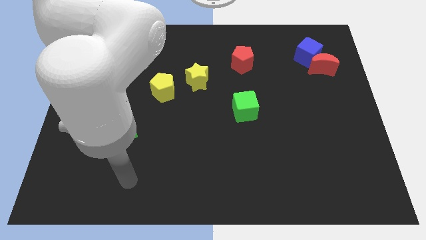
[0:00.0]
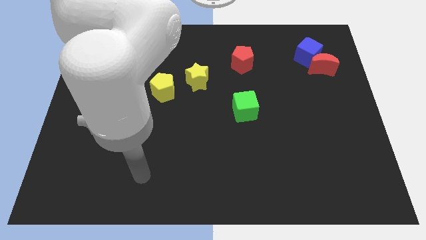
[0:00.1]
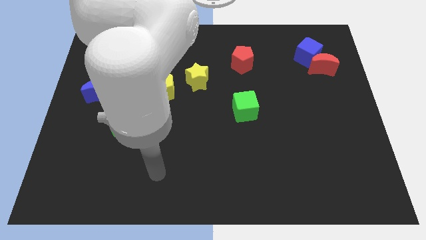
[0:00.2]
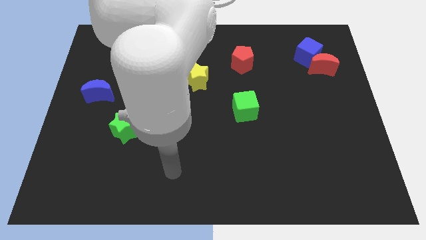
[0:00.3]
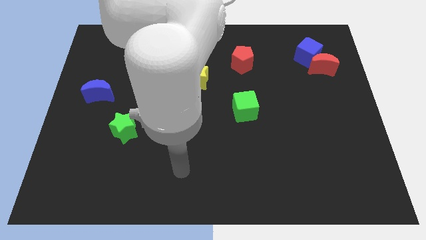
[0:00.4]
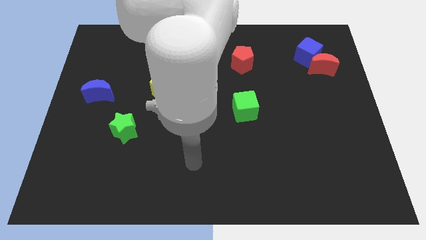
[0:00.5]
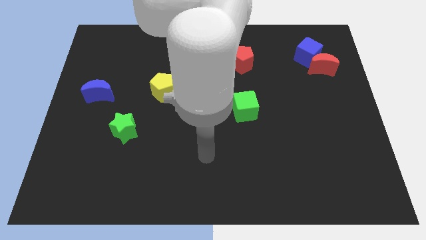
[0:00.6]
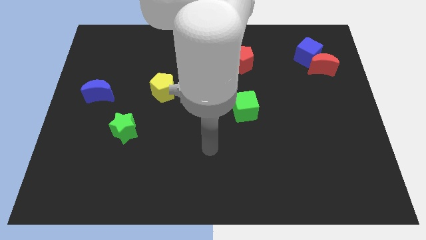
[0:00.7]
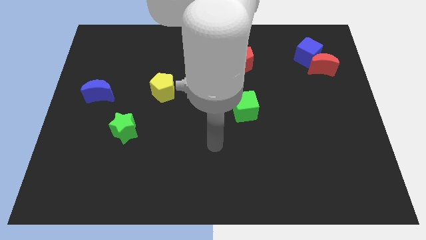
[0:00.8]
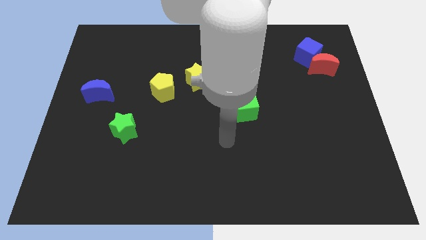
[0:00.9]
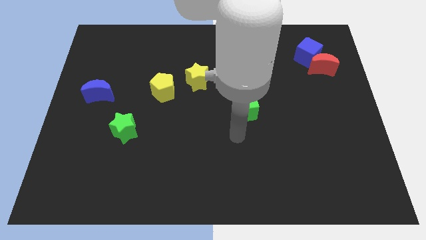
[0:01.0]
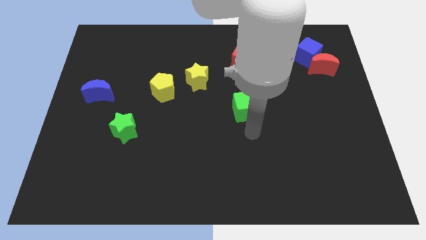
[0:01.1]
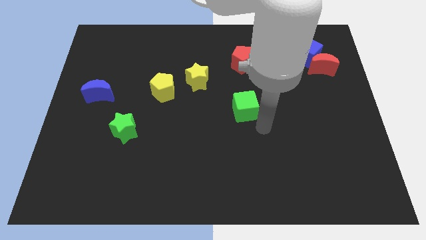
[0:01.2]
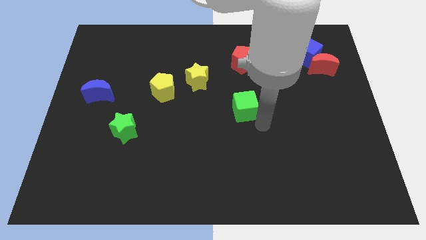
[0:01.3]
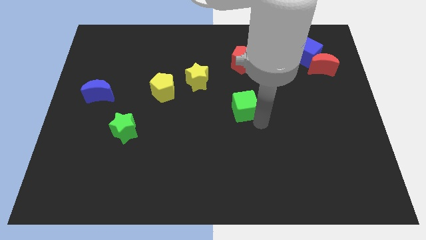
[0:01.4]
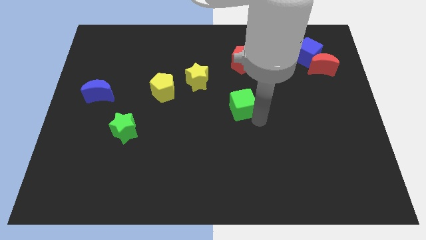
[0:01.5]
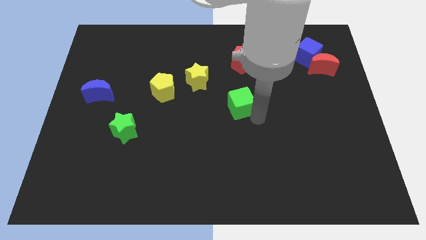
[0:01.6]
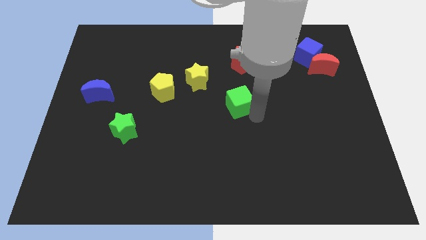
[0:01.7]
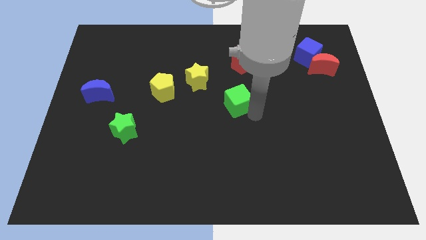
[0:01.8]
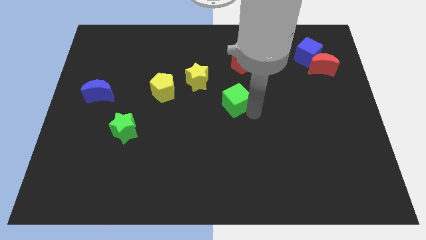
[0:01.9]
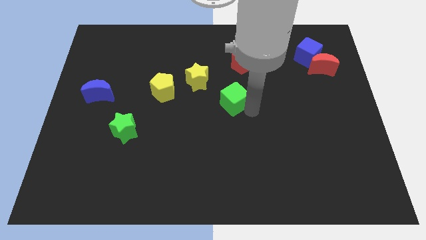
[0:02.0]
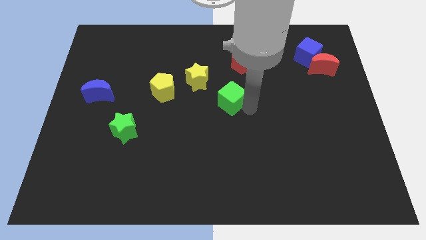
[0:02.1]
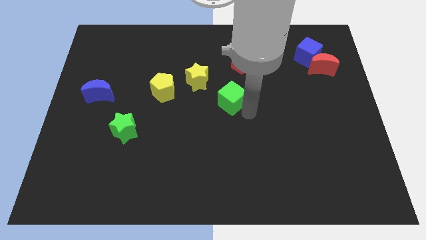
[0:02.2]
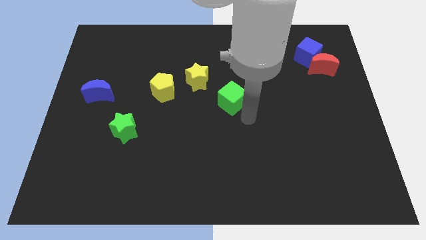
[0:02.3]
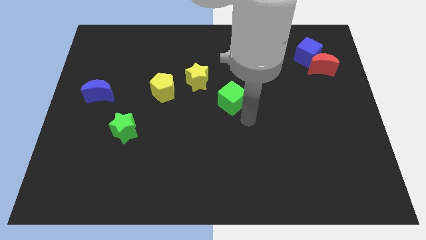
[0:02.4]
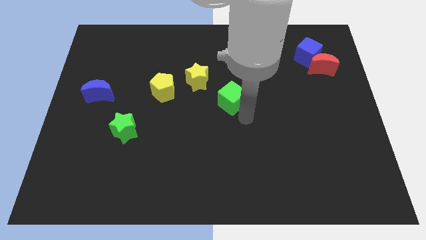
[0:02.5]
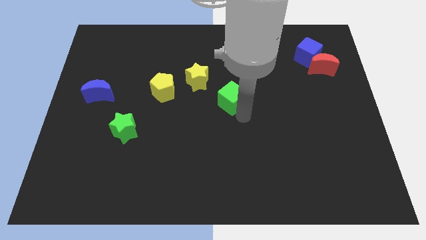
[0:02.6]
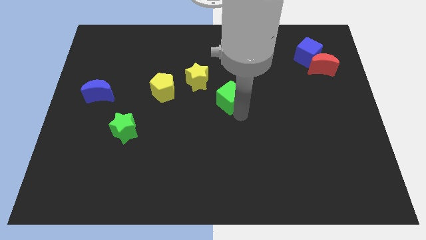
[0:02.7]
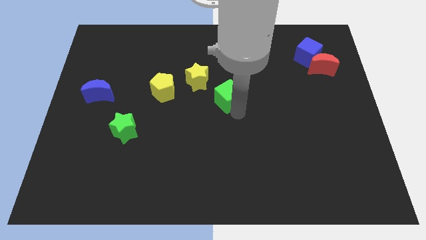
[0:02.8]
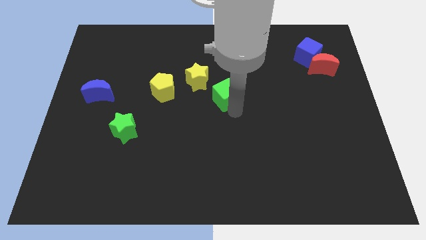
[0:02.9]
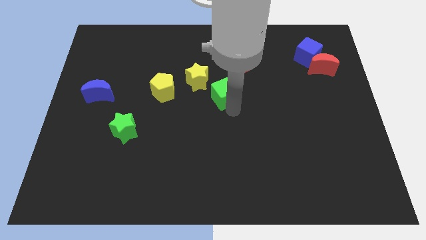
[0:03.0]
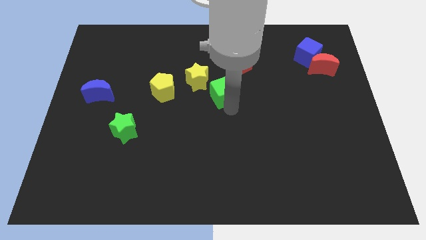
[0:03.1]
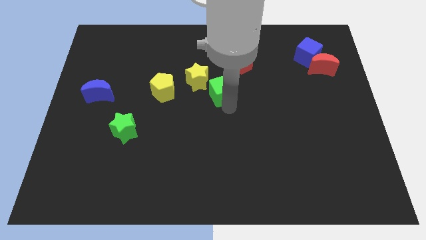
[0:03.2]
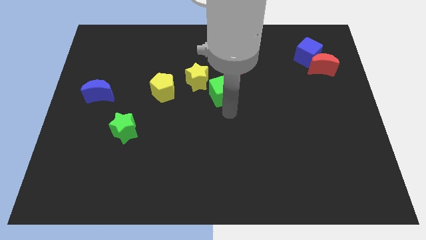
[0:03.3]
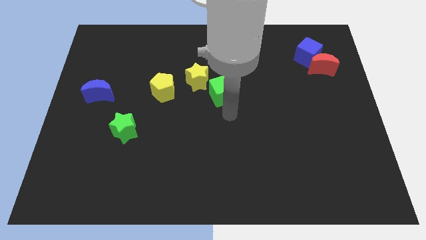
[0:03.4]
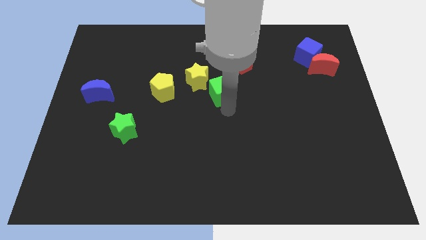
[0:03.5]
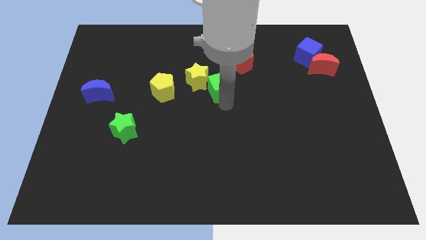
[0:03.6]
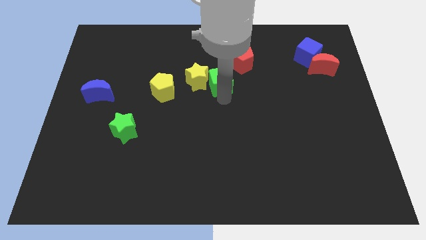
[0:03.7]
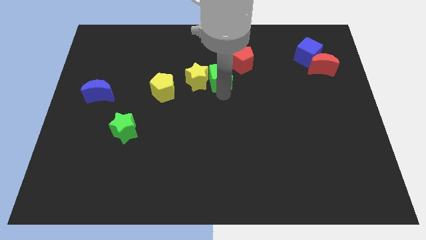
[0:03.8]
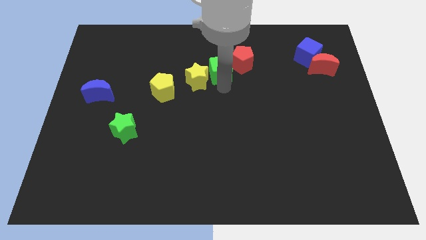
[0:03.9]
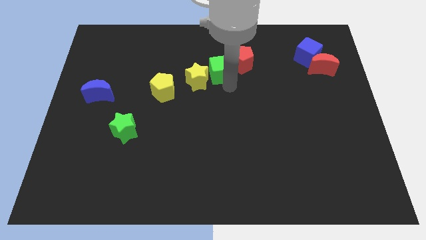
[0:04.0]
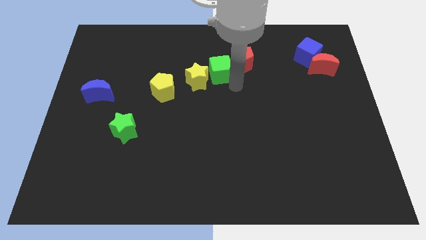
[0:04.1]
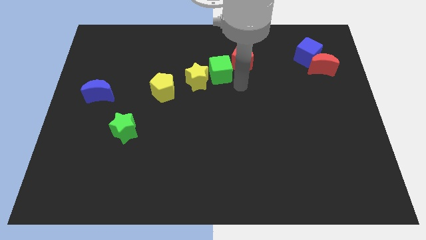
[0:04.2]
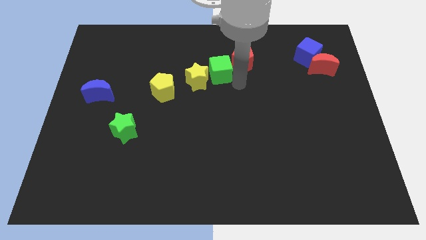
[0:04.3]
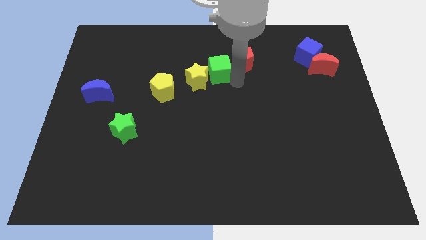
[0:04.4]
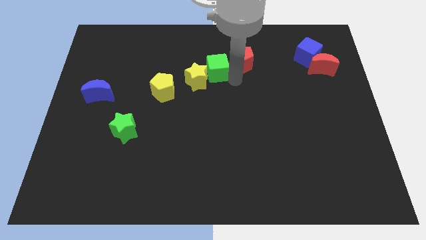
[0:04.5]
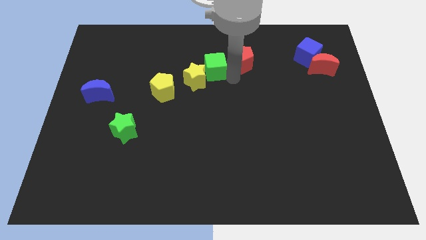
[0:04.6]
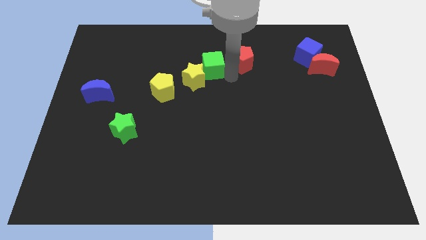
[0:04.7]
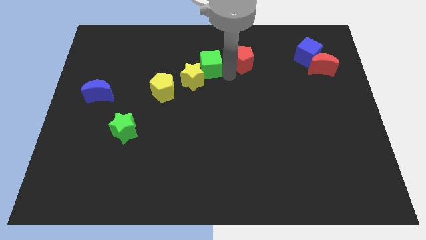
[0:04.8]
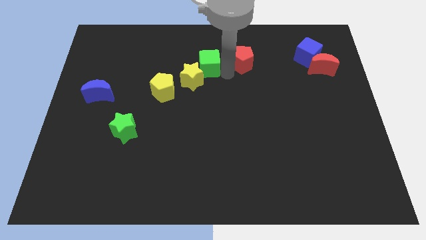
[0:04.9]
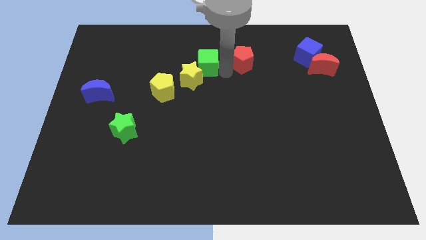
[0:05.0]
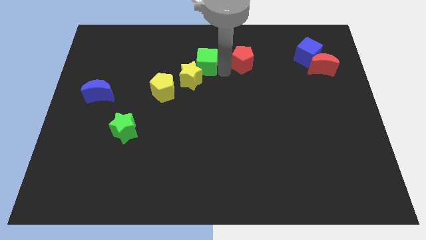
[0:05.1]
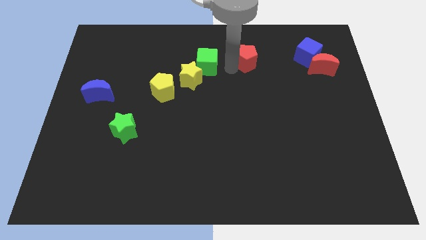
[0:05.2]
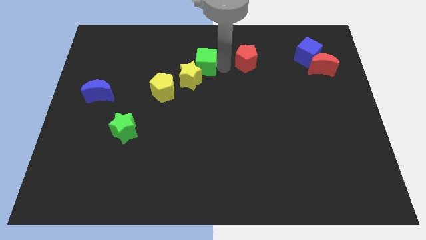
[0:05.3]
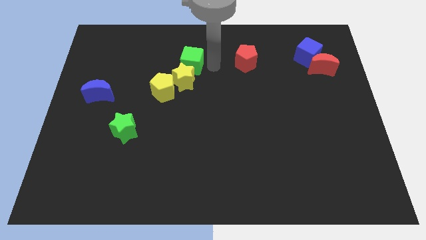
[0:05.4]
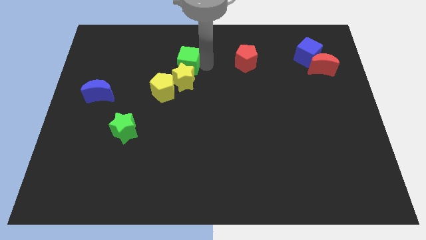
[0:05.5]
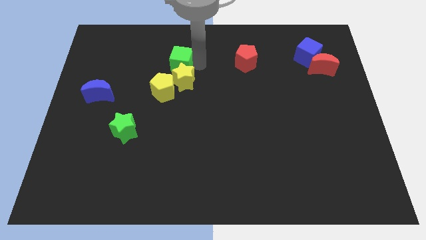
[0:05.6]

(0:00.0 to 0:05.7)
push the green cube to the top of the yellow pentagon

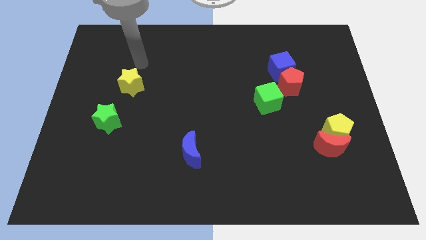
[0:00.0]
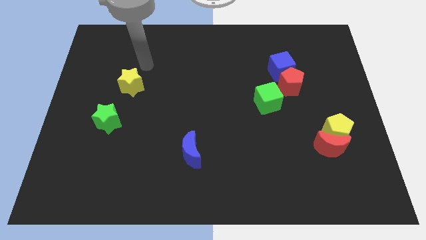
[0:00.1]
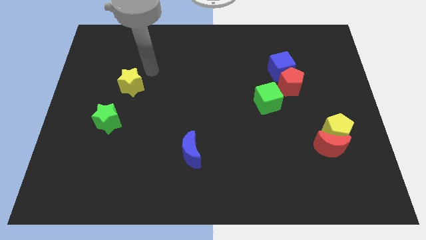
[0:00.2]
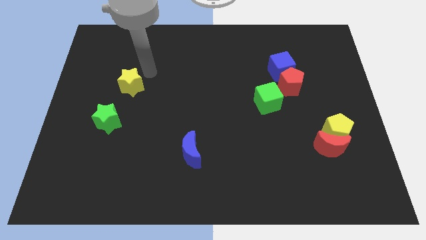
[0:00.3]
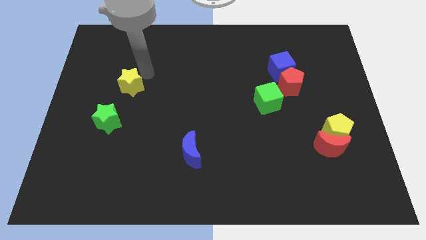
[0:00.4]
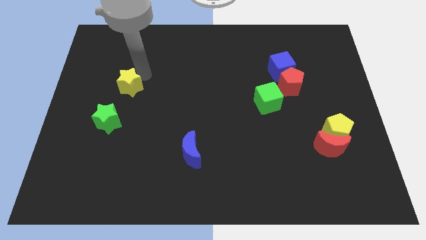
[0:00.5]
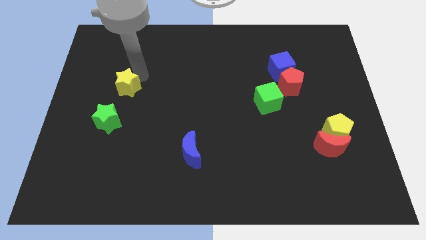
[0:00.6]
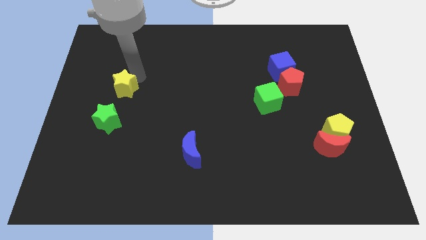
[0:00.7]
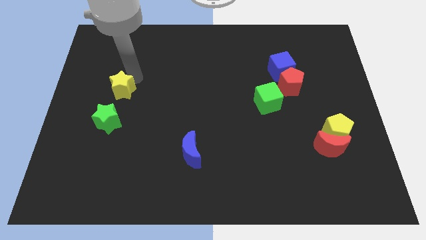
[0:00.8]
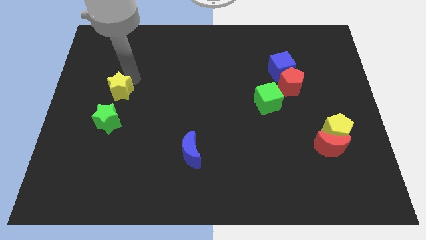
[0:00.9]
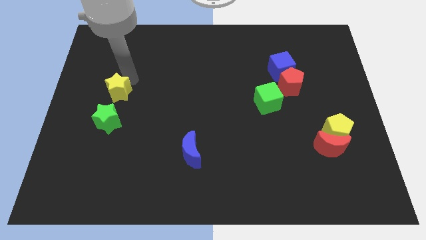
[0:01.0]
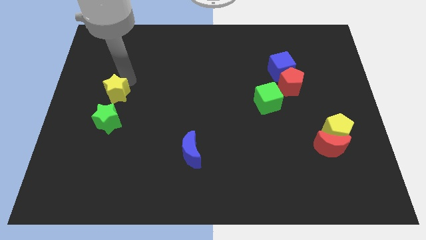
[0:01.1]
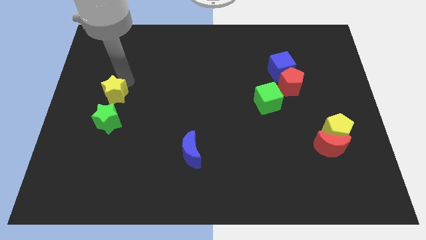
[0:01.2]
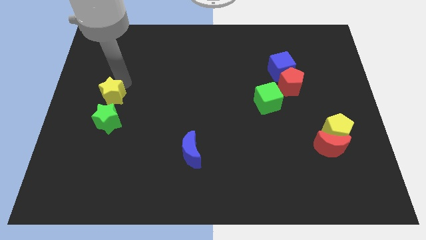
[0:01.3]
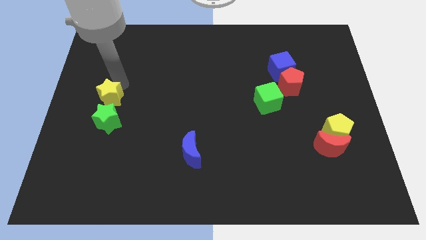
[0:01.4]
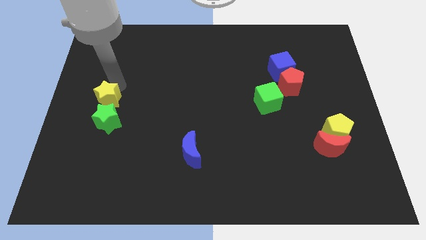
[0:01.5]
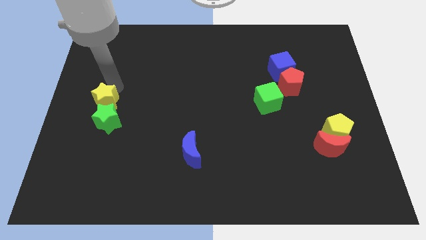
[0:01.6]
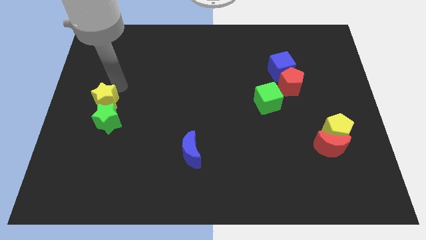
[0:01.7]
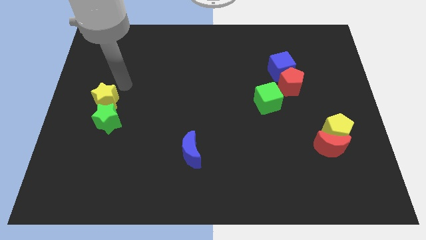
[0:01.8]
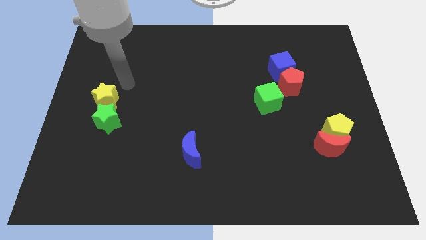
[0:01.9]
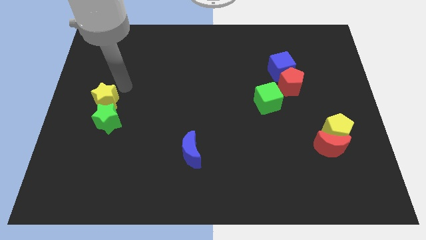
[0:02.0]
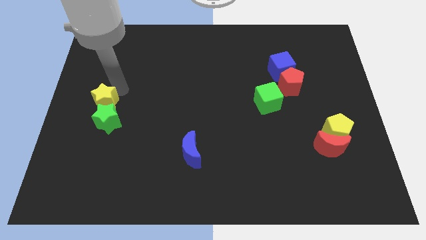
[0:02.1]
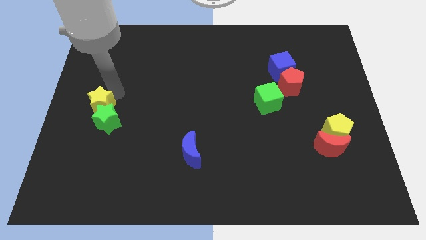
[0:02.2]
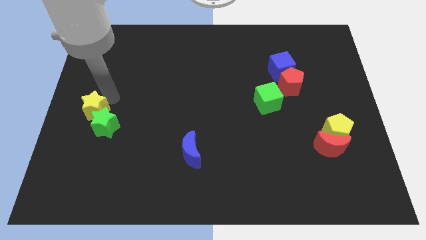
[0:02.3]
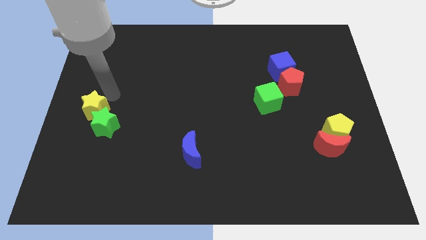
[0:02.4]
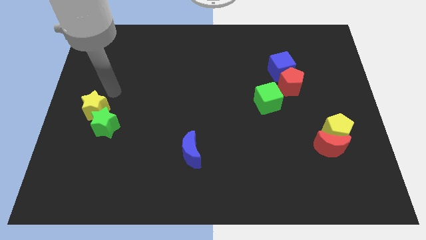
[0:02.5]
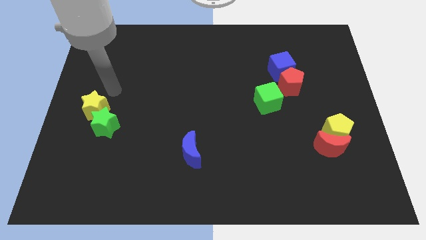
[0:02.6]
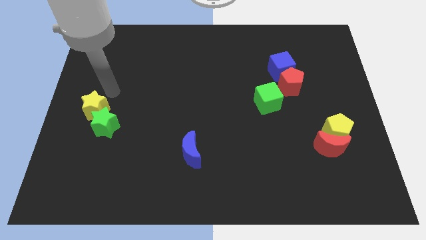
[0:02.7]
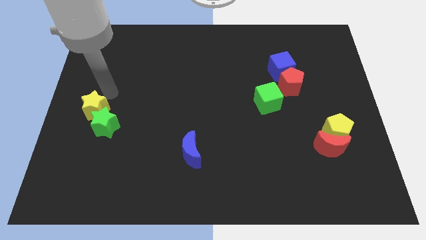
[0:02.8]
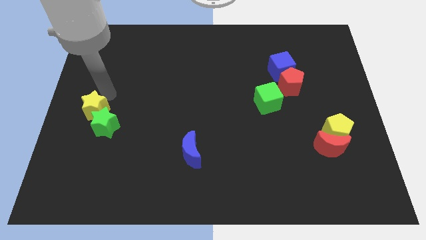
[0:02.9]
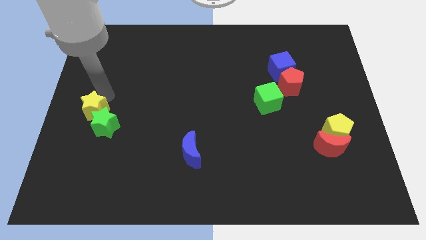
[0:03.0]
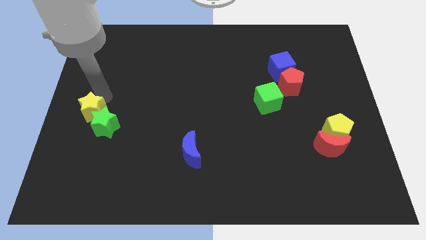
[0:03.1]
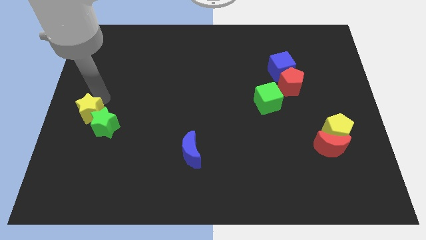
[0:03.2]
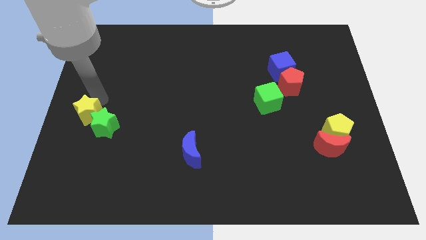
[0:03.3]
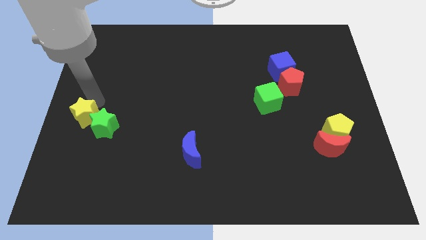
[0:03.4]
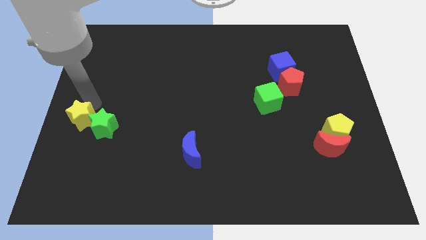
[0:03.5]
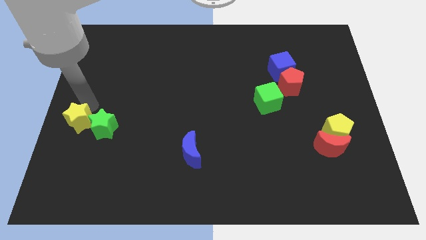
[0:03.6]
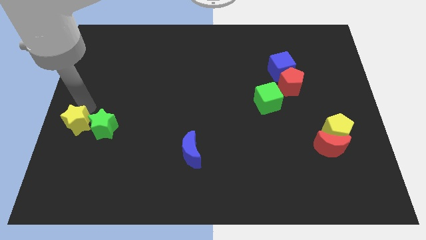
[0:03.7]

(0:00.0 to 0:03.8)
put the yellow star to the bottom left side of the green star
